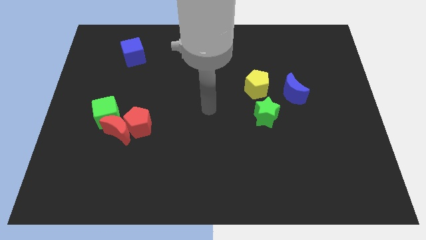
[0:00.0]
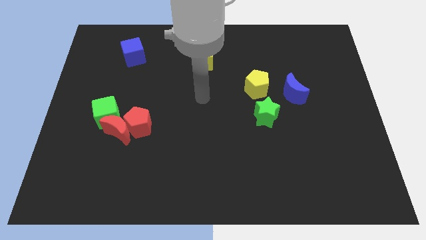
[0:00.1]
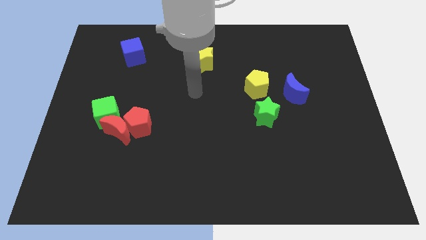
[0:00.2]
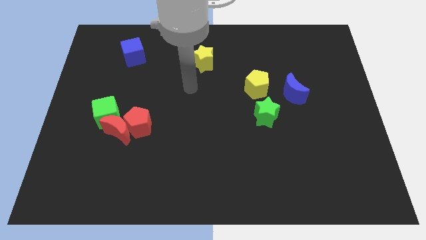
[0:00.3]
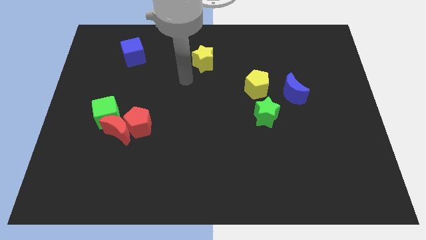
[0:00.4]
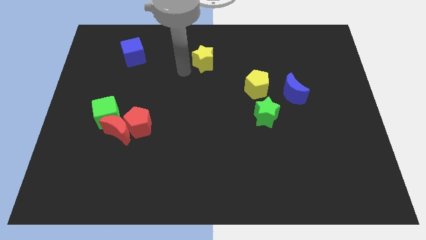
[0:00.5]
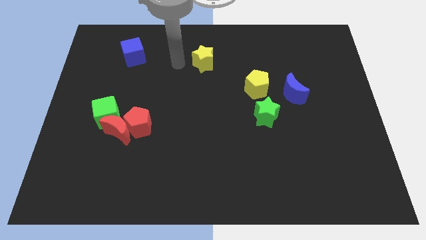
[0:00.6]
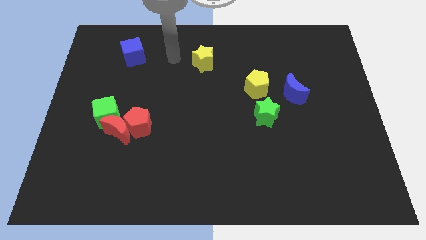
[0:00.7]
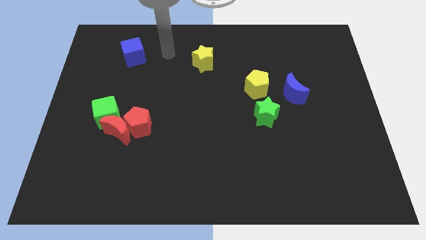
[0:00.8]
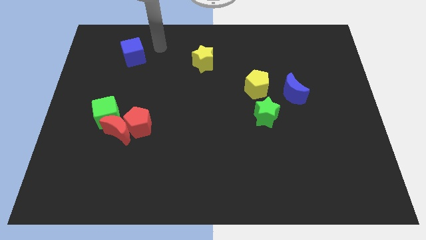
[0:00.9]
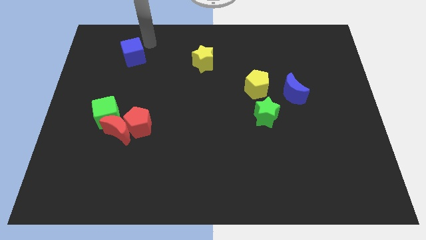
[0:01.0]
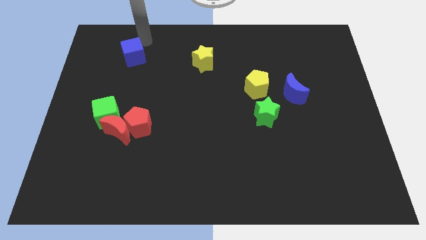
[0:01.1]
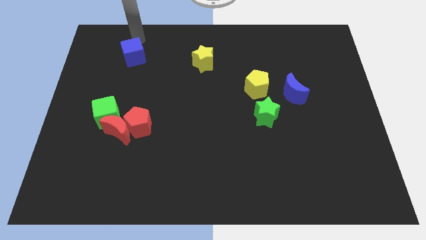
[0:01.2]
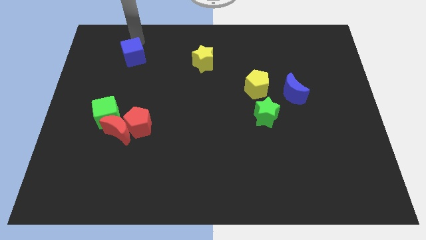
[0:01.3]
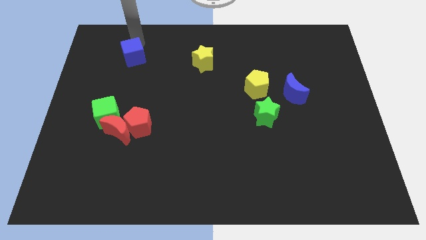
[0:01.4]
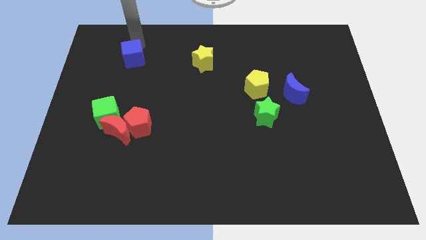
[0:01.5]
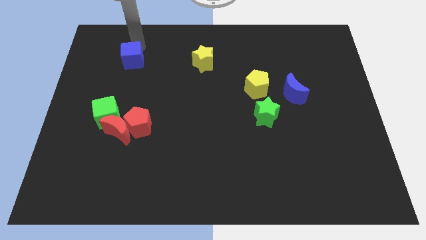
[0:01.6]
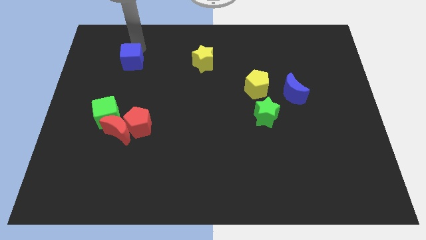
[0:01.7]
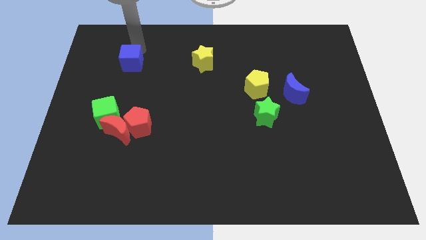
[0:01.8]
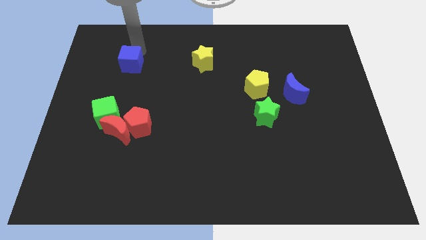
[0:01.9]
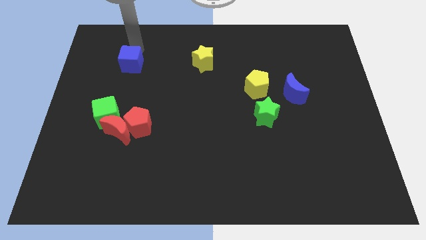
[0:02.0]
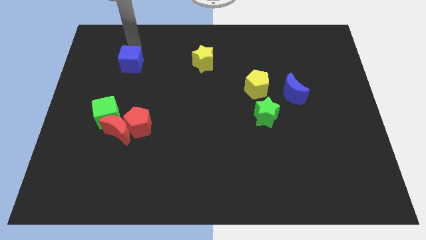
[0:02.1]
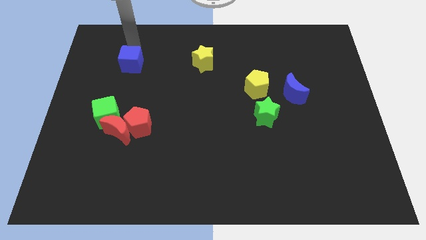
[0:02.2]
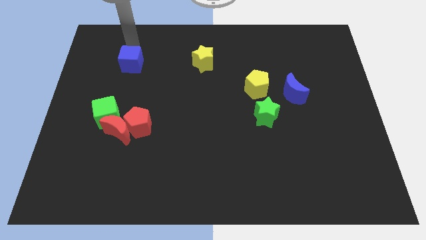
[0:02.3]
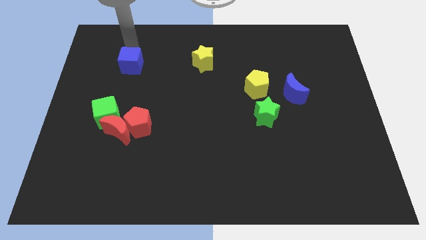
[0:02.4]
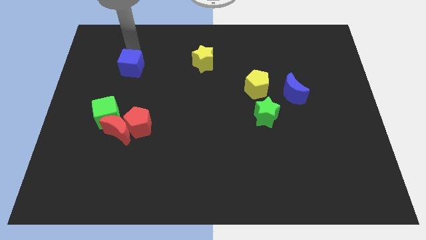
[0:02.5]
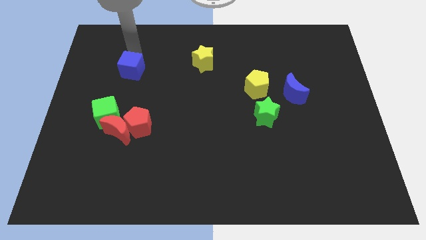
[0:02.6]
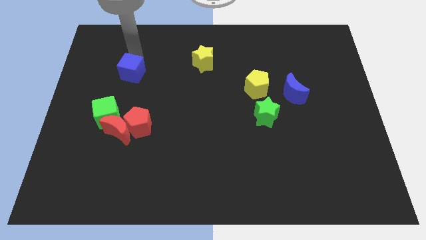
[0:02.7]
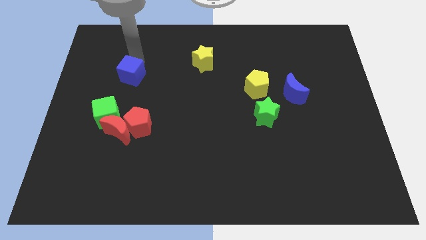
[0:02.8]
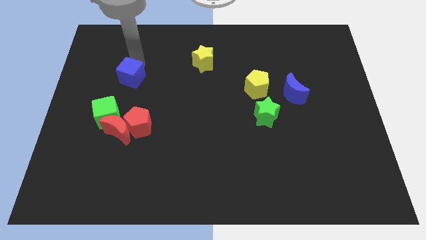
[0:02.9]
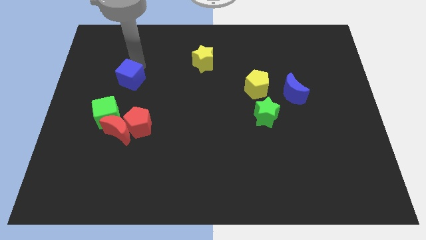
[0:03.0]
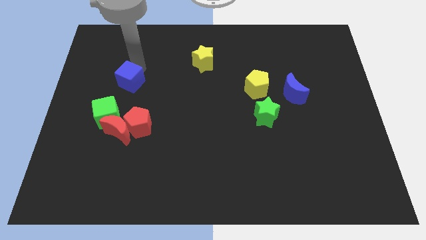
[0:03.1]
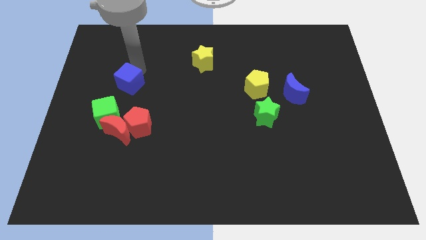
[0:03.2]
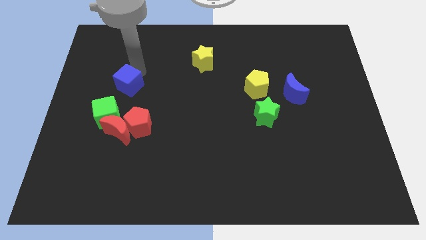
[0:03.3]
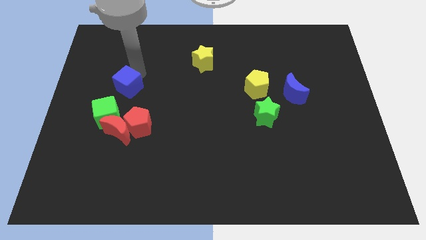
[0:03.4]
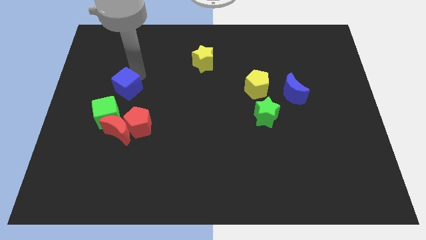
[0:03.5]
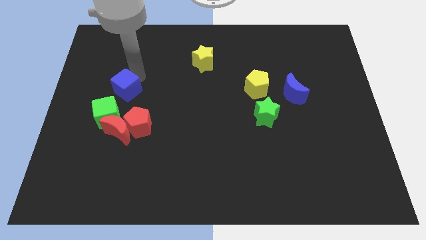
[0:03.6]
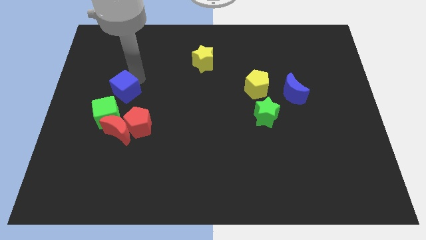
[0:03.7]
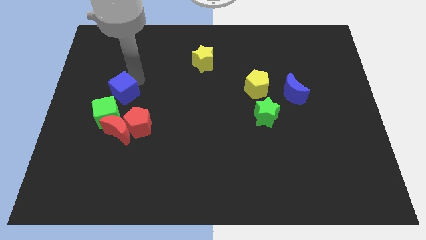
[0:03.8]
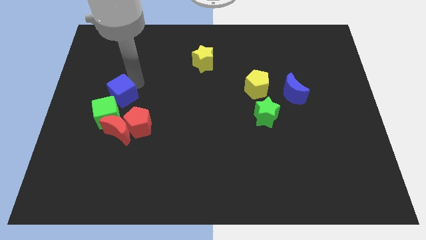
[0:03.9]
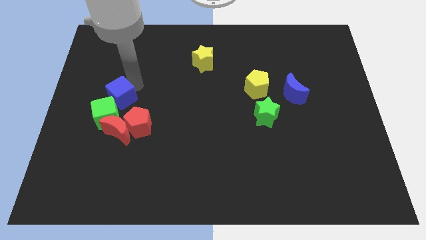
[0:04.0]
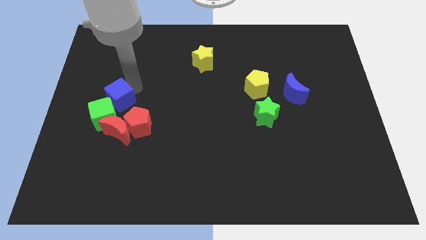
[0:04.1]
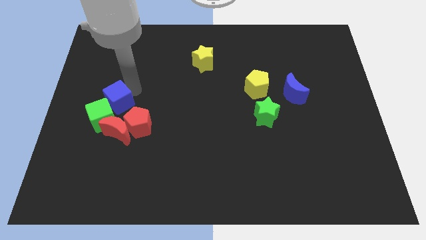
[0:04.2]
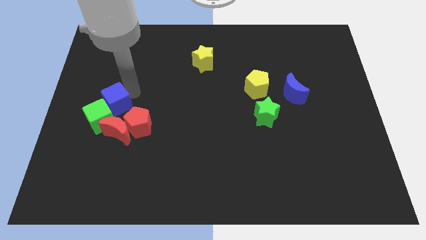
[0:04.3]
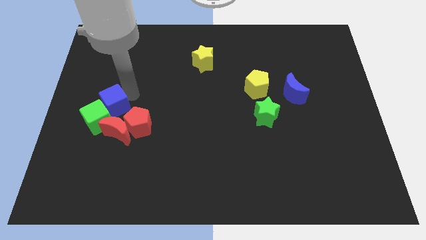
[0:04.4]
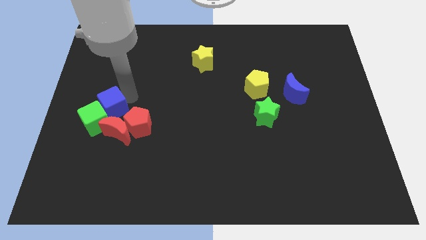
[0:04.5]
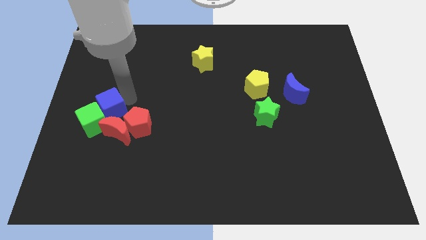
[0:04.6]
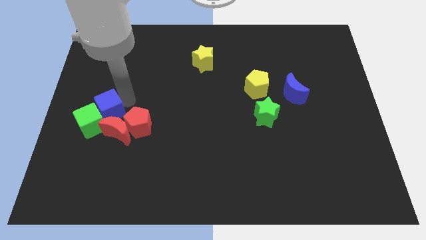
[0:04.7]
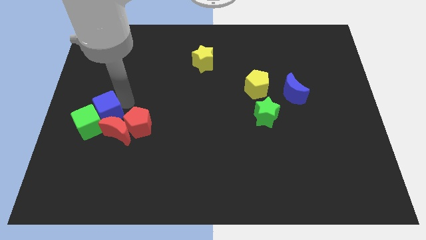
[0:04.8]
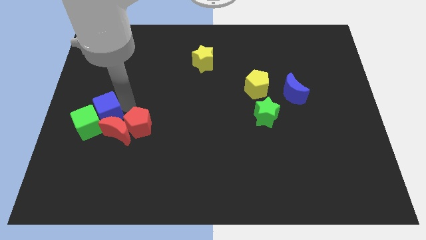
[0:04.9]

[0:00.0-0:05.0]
move the blue cube close to the red moon
